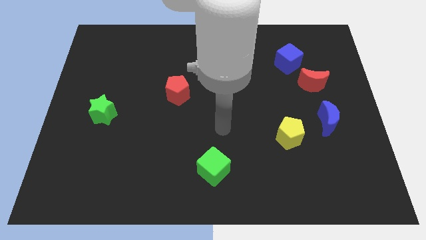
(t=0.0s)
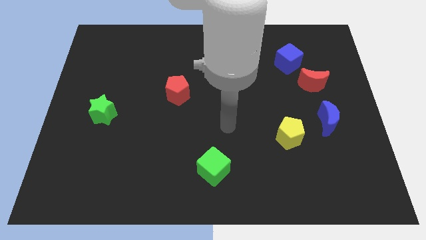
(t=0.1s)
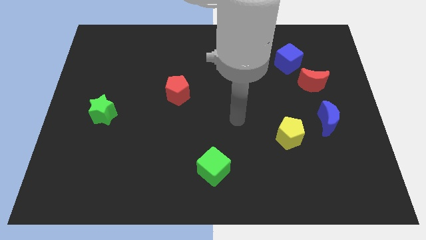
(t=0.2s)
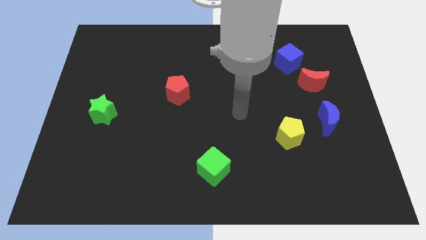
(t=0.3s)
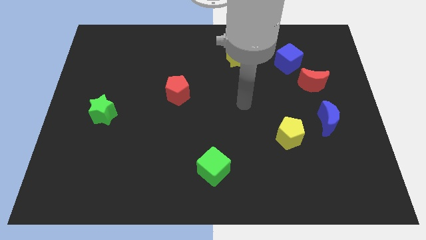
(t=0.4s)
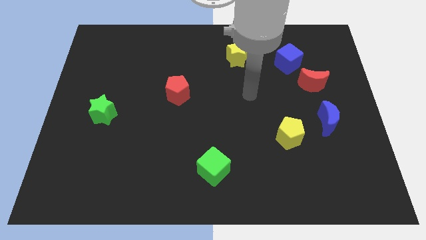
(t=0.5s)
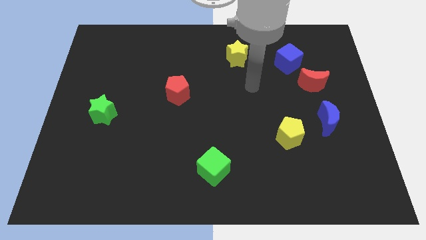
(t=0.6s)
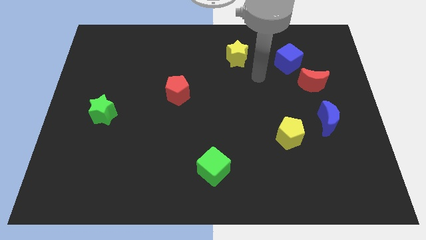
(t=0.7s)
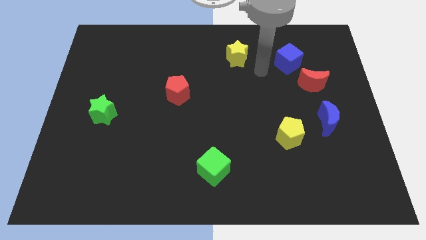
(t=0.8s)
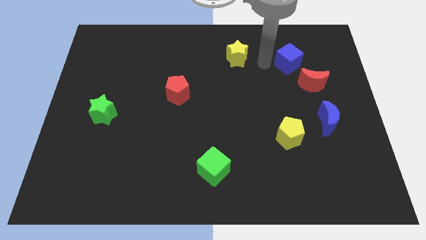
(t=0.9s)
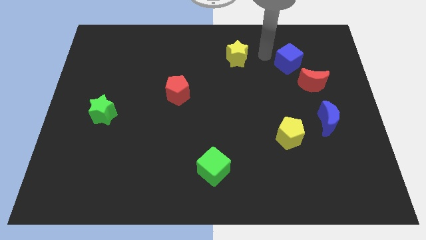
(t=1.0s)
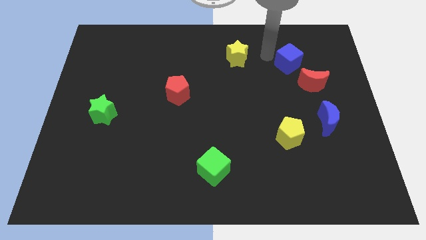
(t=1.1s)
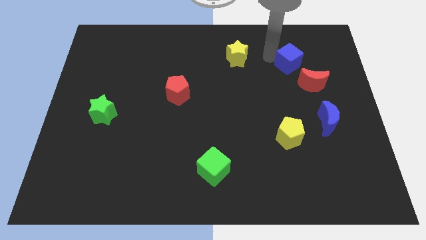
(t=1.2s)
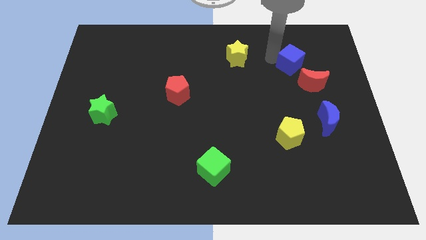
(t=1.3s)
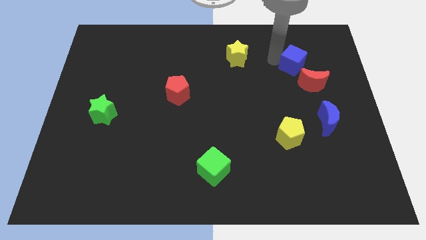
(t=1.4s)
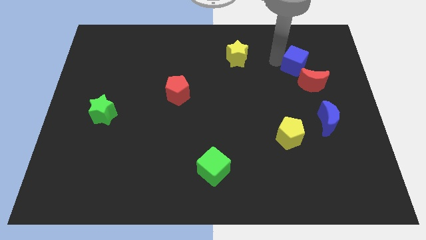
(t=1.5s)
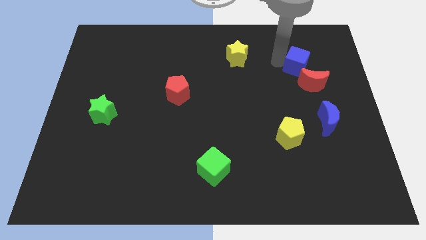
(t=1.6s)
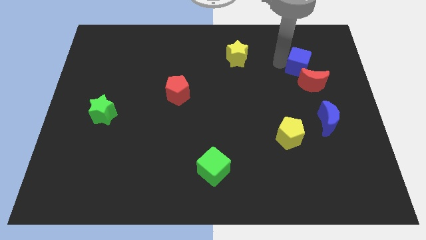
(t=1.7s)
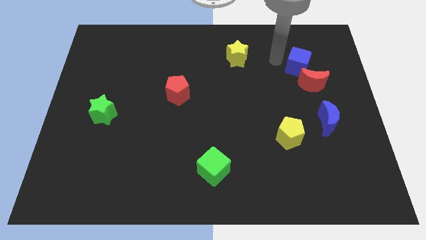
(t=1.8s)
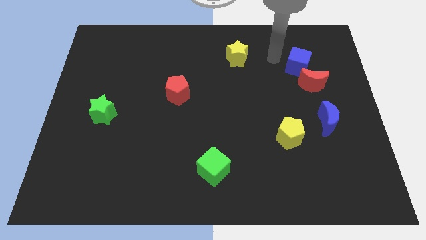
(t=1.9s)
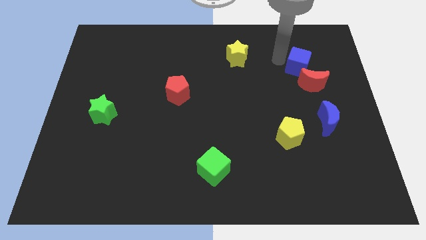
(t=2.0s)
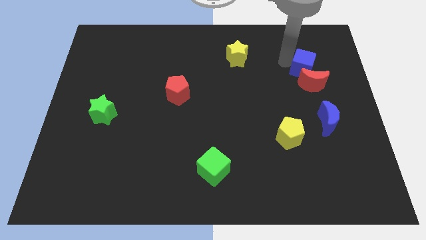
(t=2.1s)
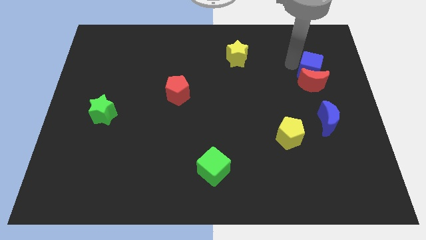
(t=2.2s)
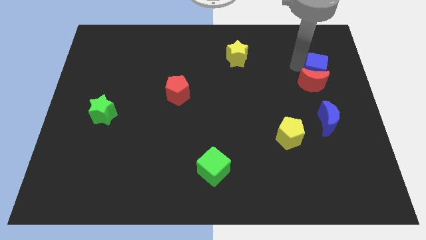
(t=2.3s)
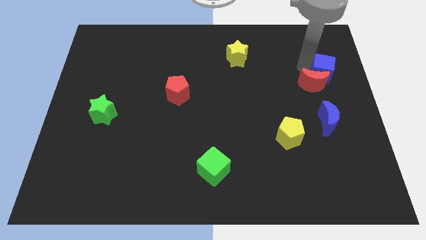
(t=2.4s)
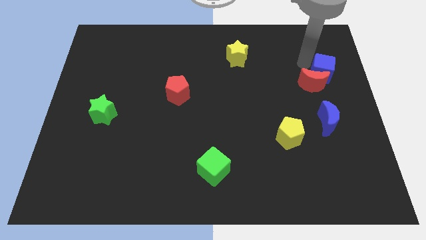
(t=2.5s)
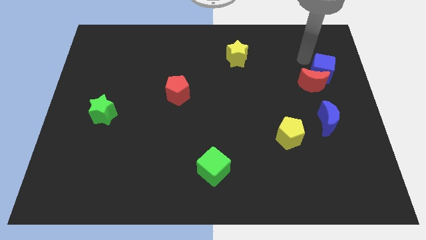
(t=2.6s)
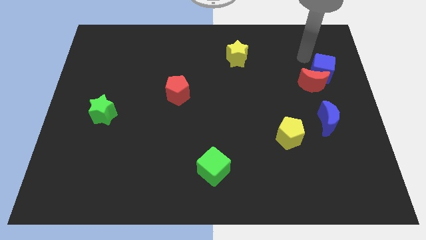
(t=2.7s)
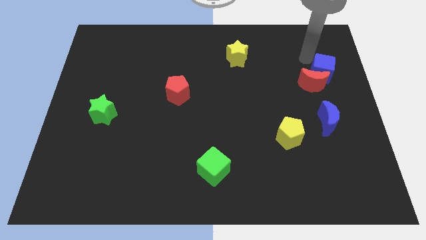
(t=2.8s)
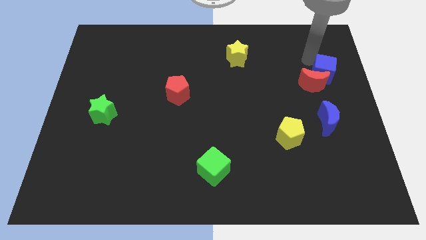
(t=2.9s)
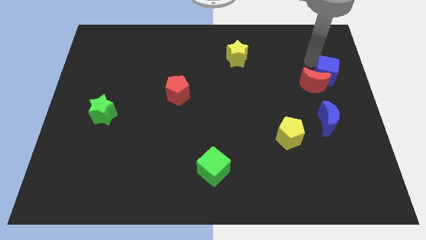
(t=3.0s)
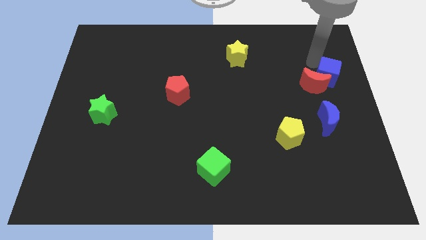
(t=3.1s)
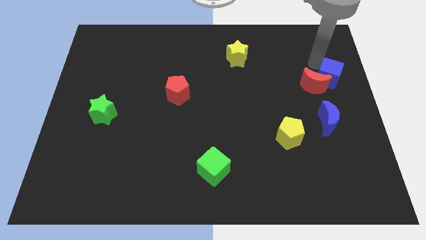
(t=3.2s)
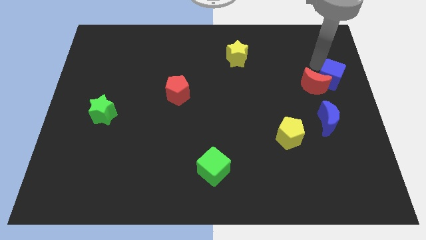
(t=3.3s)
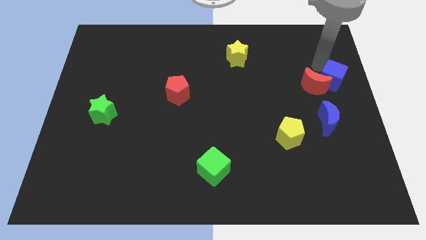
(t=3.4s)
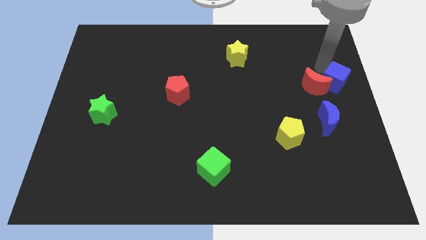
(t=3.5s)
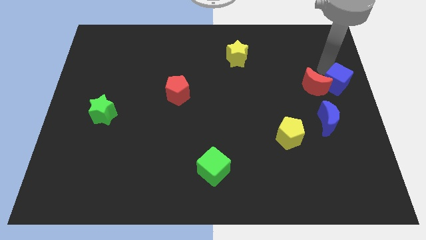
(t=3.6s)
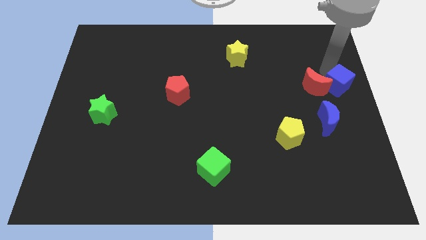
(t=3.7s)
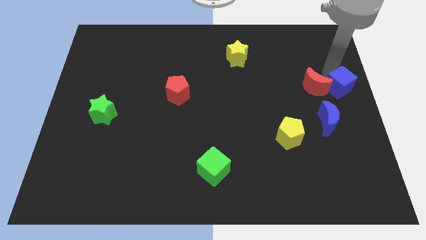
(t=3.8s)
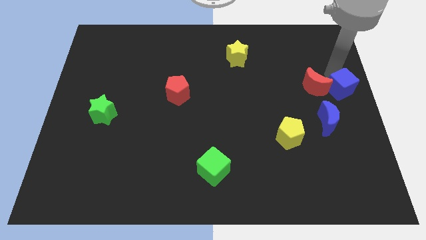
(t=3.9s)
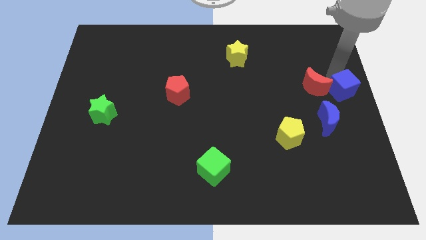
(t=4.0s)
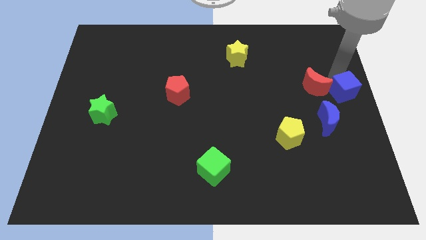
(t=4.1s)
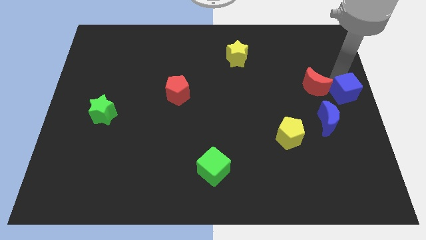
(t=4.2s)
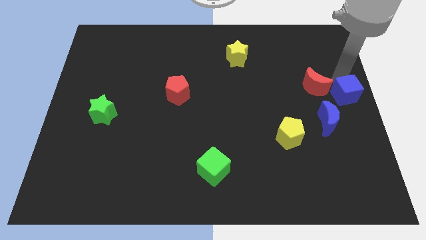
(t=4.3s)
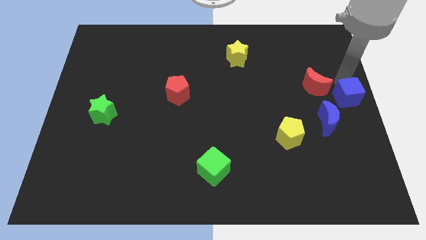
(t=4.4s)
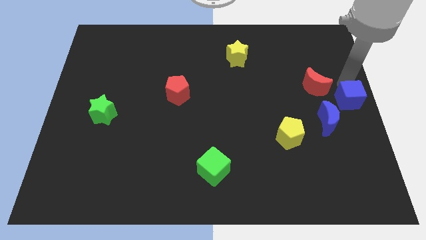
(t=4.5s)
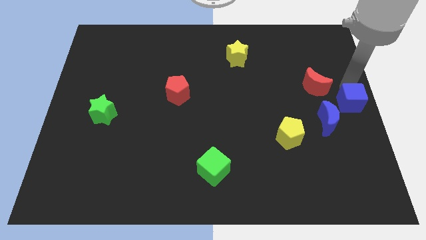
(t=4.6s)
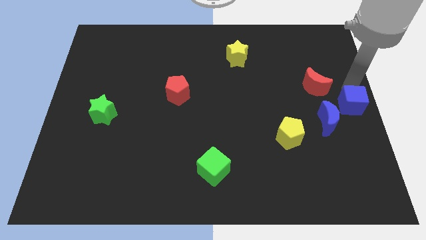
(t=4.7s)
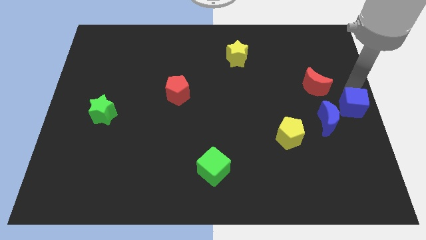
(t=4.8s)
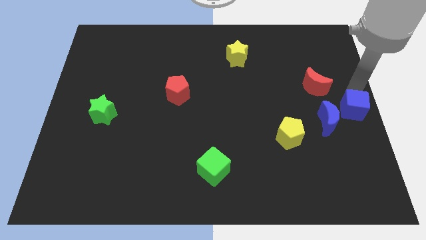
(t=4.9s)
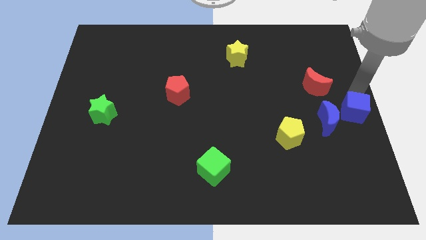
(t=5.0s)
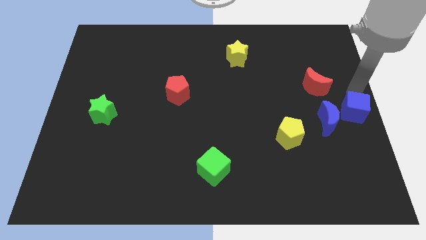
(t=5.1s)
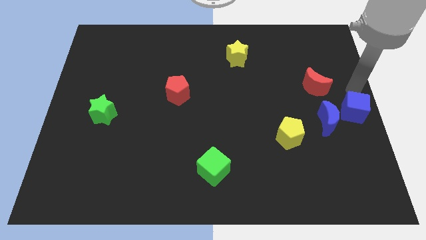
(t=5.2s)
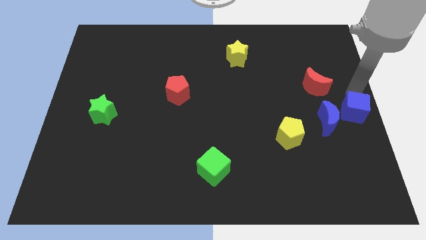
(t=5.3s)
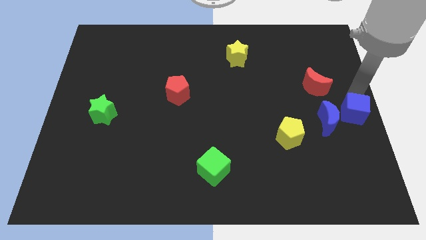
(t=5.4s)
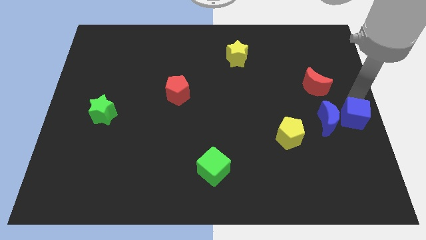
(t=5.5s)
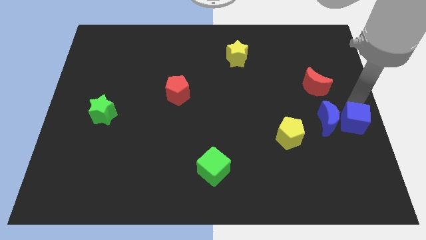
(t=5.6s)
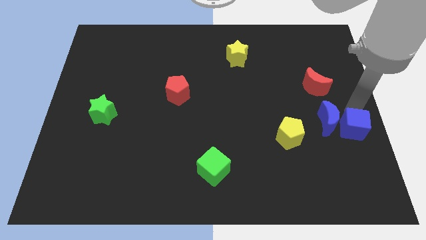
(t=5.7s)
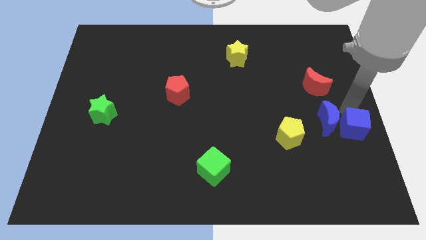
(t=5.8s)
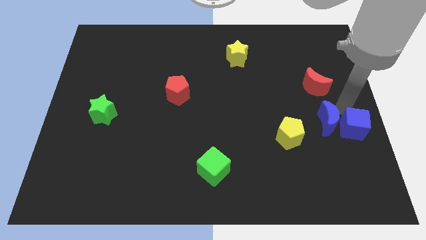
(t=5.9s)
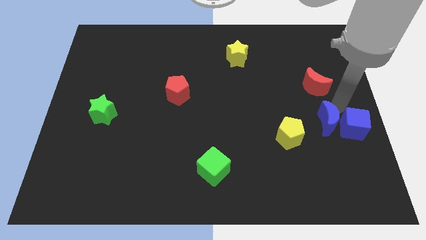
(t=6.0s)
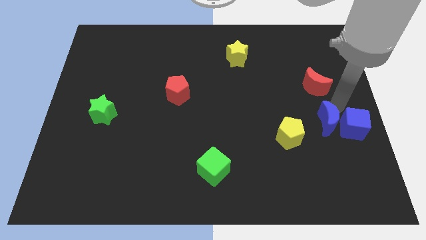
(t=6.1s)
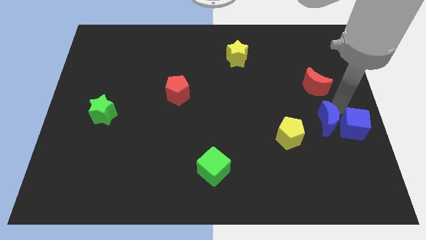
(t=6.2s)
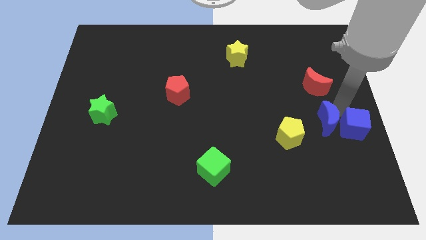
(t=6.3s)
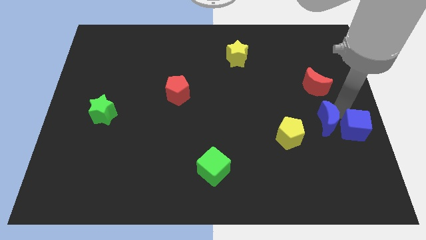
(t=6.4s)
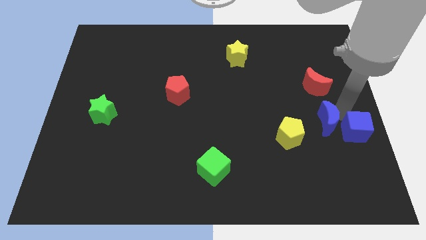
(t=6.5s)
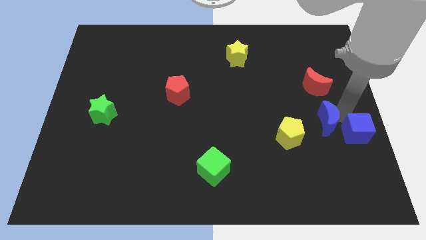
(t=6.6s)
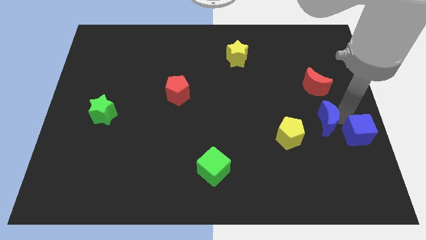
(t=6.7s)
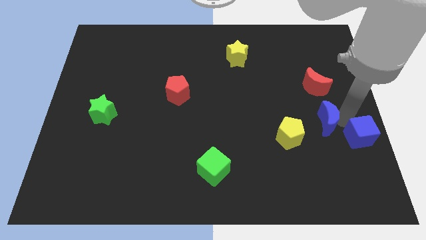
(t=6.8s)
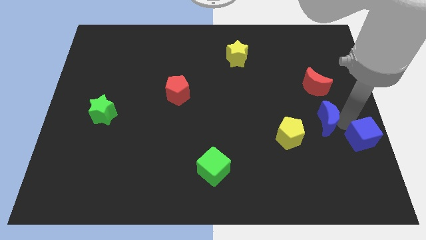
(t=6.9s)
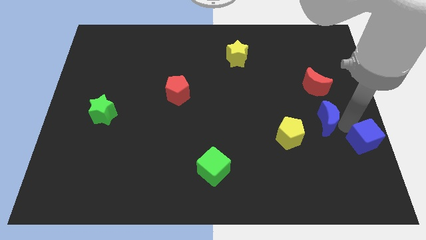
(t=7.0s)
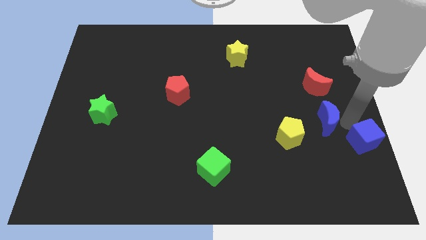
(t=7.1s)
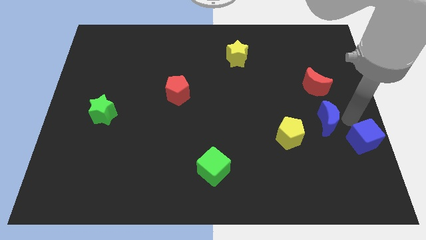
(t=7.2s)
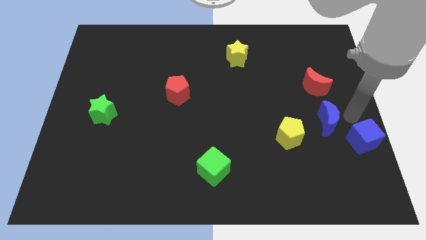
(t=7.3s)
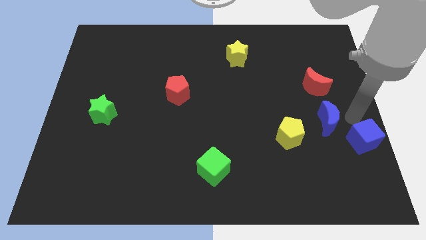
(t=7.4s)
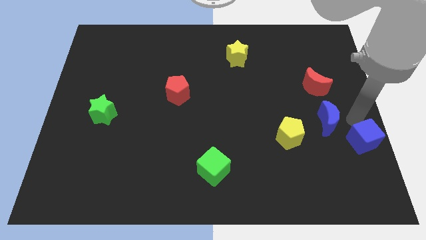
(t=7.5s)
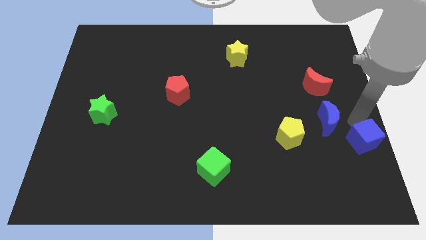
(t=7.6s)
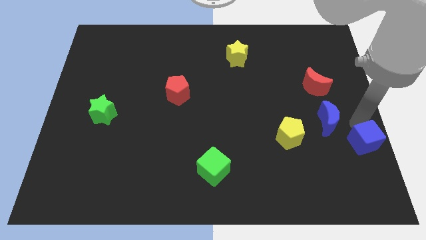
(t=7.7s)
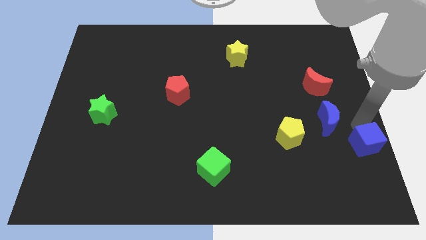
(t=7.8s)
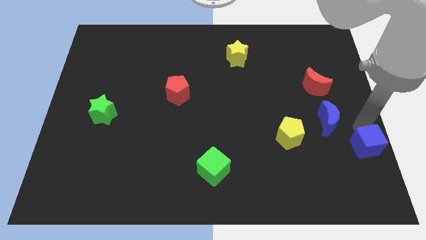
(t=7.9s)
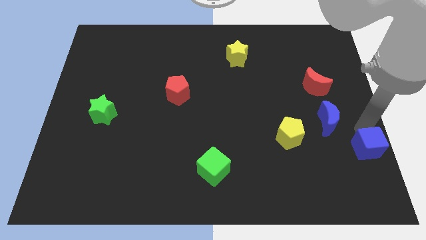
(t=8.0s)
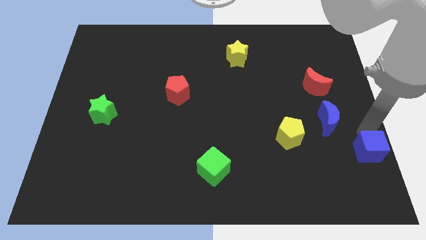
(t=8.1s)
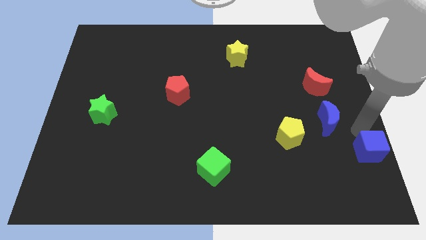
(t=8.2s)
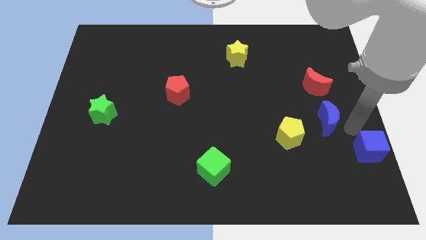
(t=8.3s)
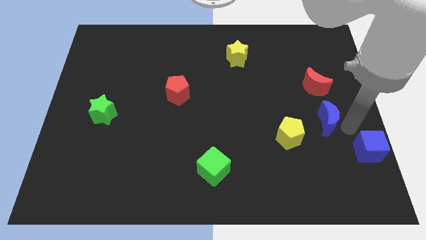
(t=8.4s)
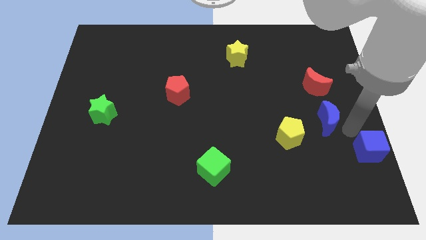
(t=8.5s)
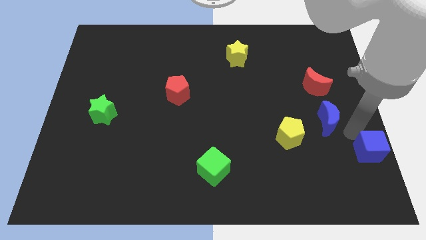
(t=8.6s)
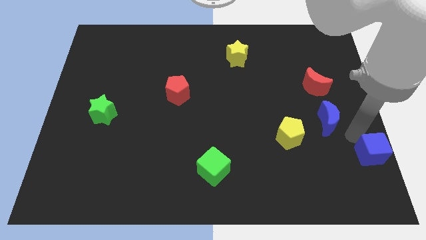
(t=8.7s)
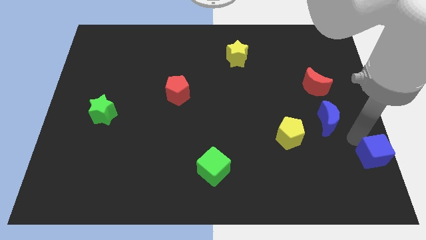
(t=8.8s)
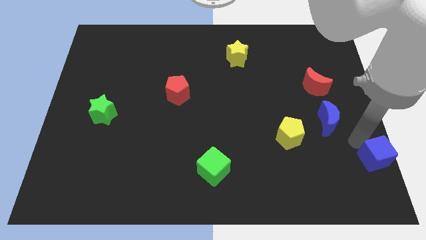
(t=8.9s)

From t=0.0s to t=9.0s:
move the blue cube to the bottom right
